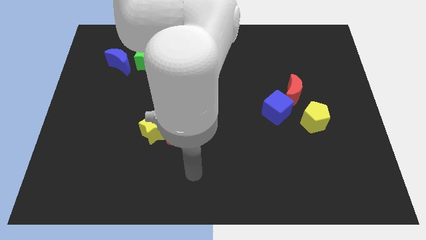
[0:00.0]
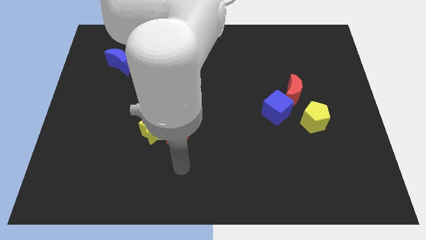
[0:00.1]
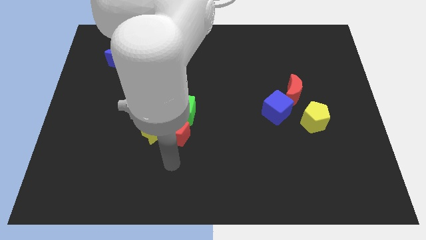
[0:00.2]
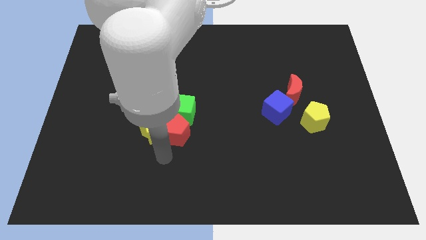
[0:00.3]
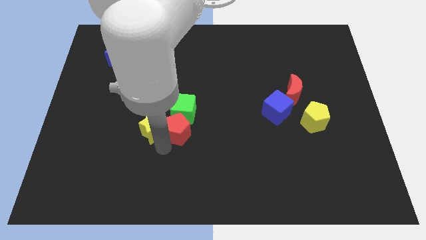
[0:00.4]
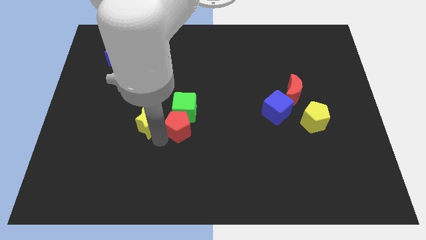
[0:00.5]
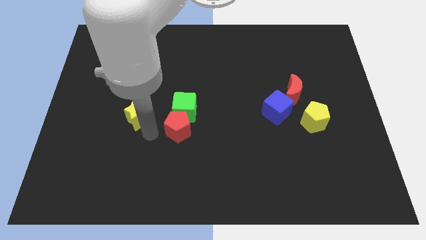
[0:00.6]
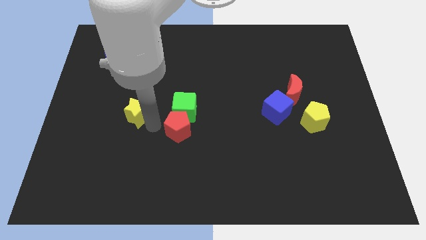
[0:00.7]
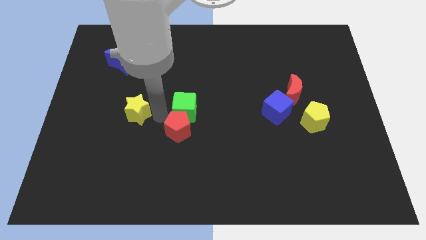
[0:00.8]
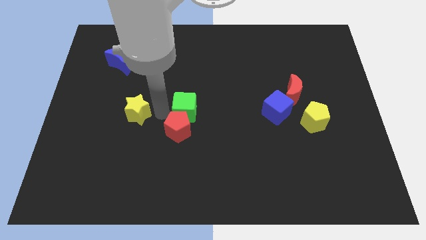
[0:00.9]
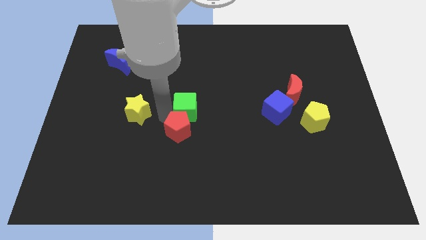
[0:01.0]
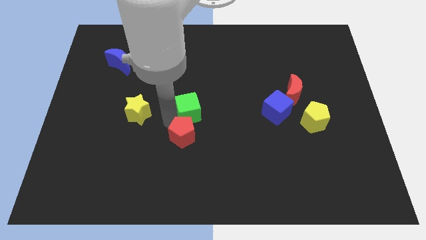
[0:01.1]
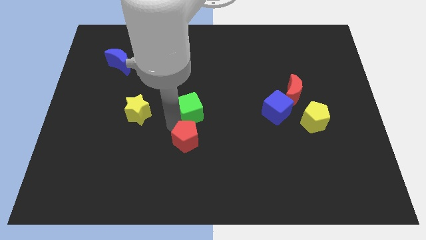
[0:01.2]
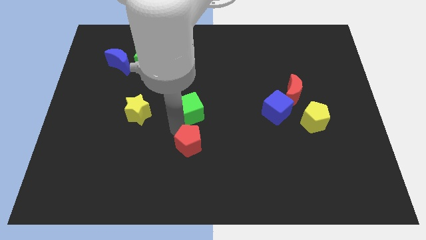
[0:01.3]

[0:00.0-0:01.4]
move the red pentagon away from the yellow star and green cube

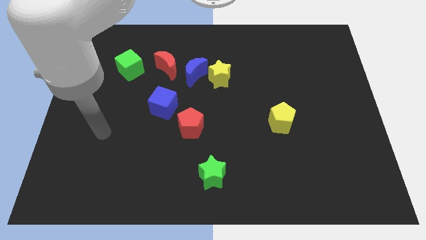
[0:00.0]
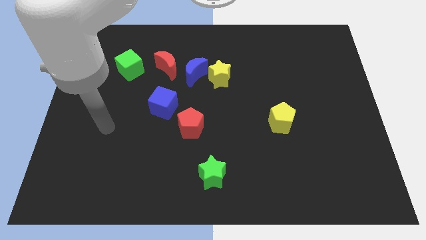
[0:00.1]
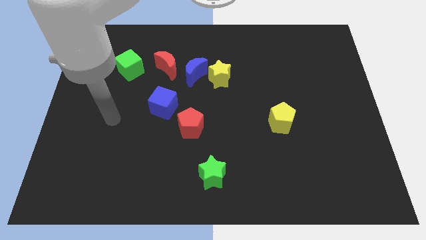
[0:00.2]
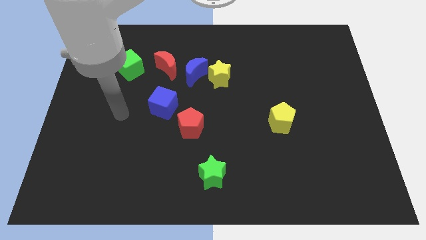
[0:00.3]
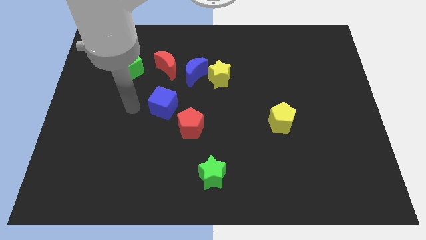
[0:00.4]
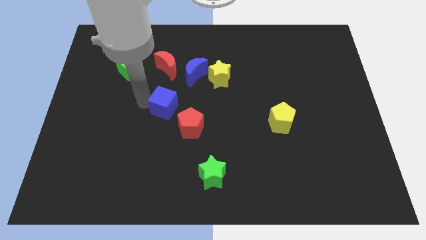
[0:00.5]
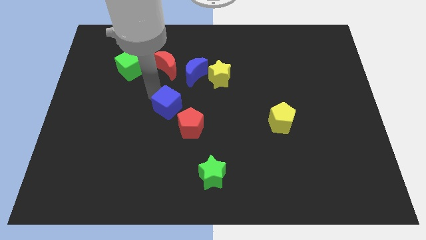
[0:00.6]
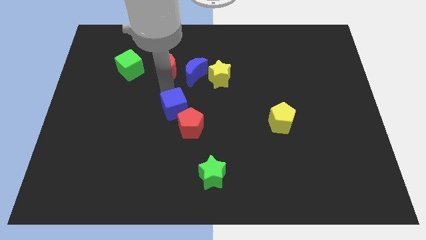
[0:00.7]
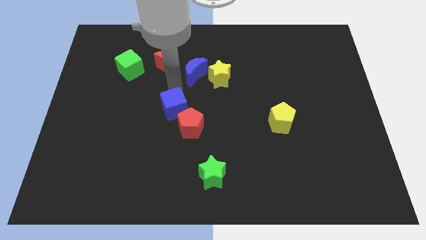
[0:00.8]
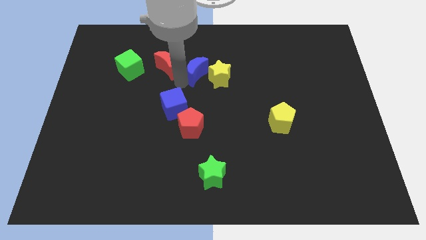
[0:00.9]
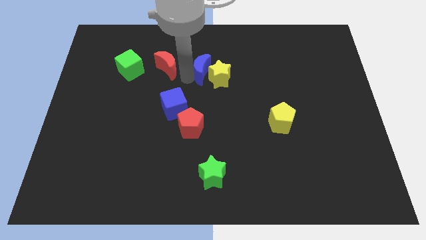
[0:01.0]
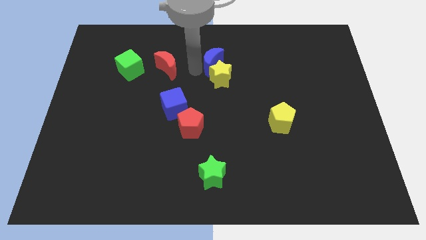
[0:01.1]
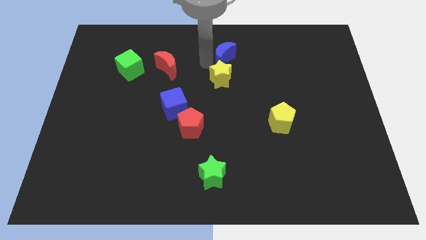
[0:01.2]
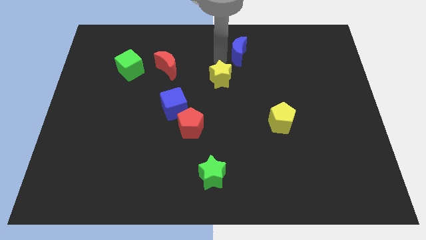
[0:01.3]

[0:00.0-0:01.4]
separate the yellow star from the blue moon

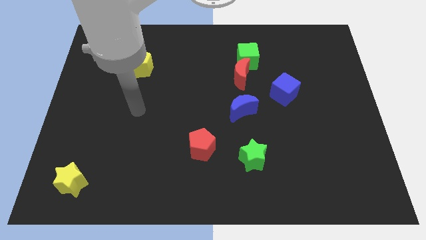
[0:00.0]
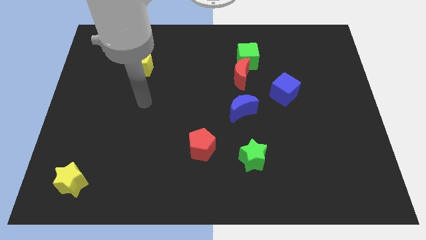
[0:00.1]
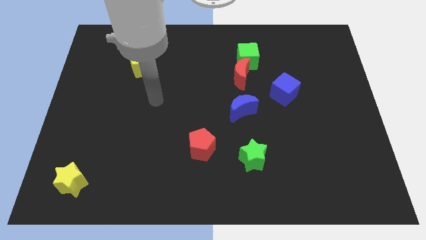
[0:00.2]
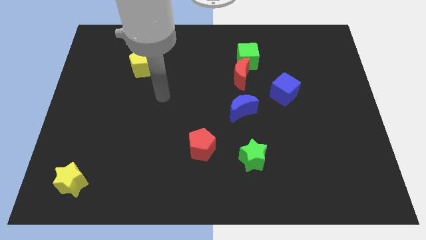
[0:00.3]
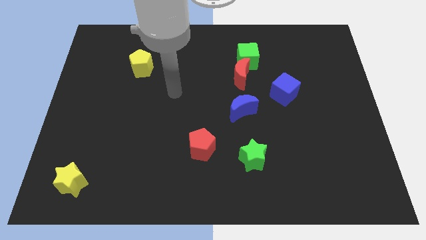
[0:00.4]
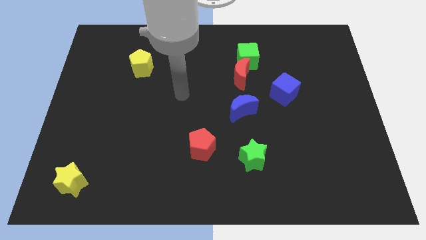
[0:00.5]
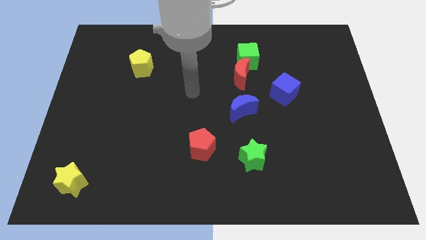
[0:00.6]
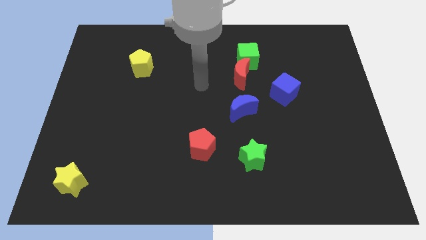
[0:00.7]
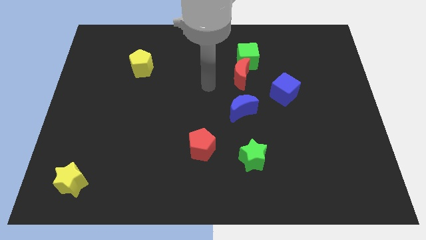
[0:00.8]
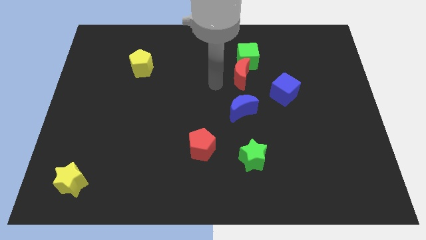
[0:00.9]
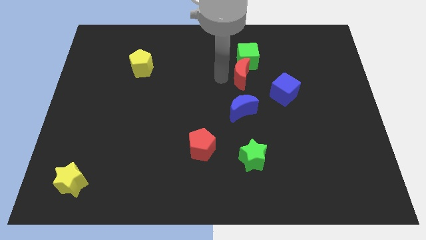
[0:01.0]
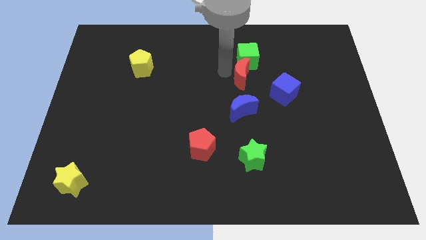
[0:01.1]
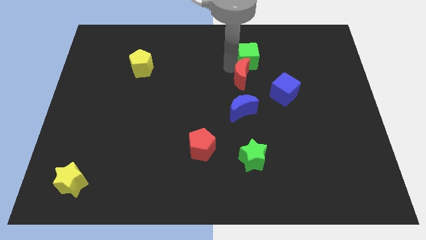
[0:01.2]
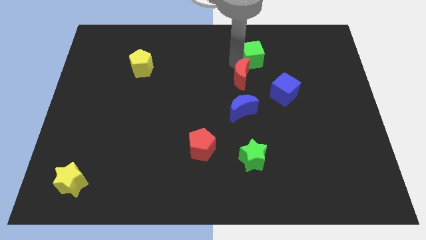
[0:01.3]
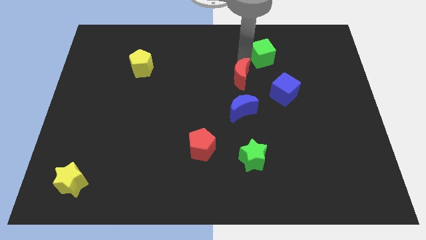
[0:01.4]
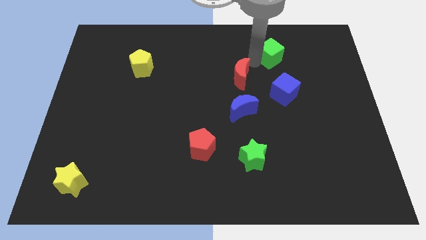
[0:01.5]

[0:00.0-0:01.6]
pull the red moon apart from the green cube

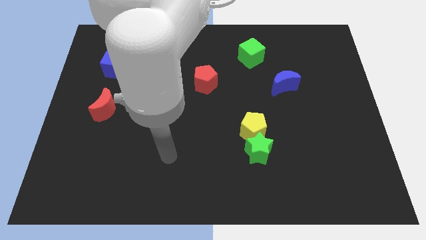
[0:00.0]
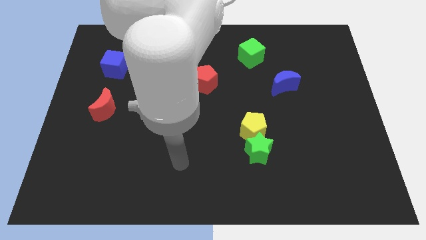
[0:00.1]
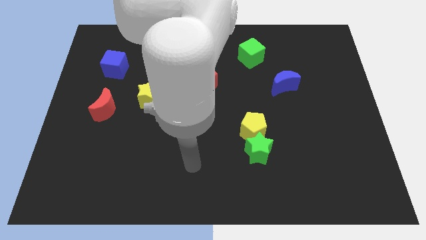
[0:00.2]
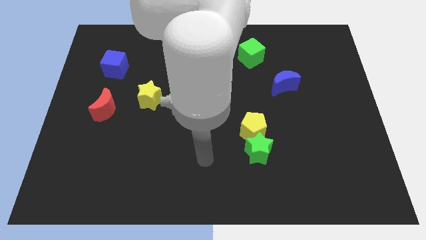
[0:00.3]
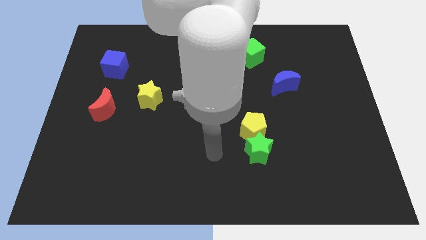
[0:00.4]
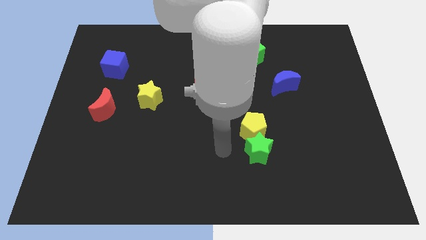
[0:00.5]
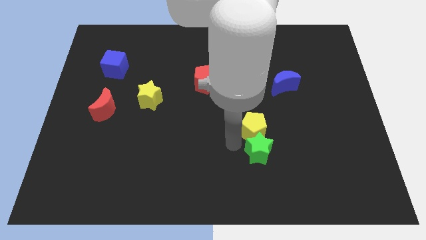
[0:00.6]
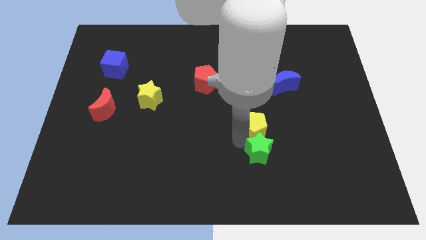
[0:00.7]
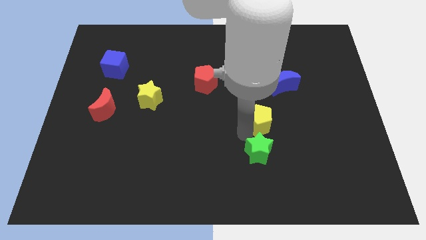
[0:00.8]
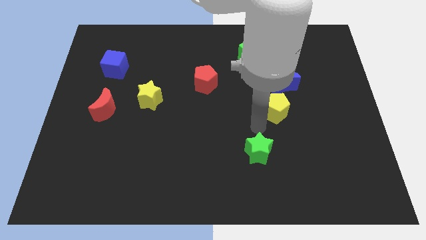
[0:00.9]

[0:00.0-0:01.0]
pull the green star apart from the yellow pentagon

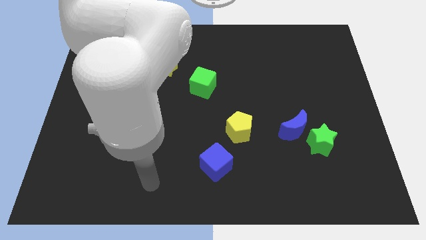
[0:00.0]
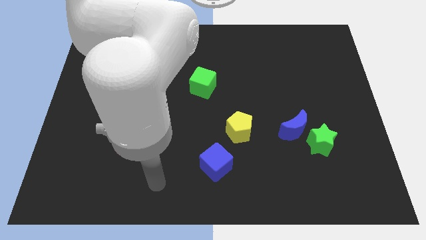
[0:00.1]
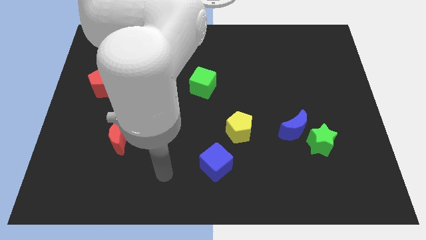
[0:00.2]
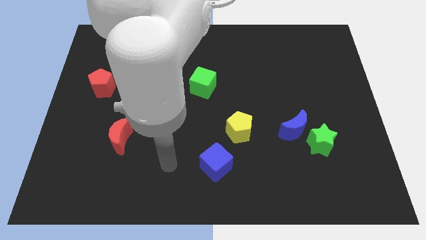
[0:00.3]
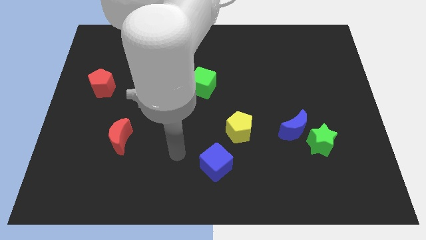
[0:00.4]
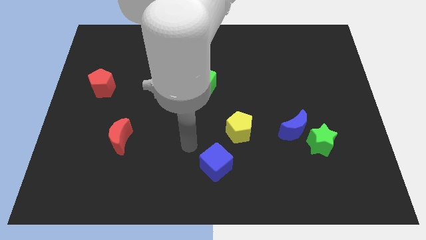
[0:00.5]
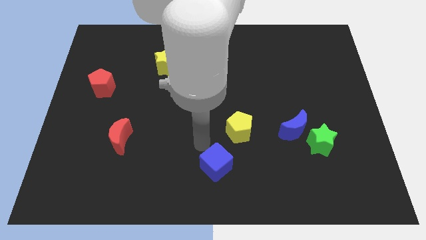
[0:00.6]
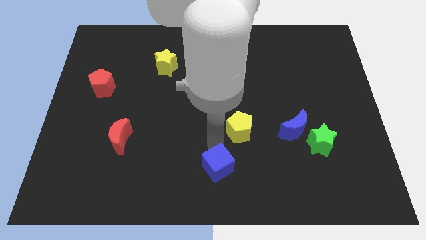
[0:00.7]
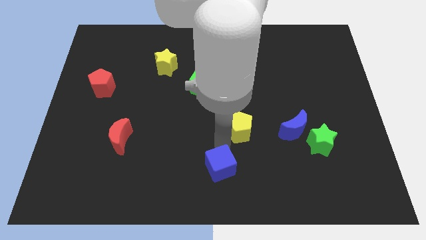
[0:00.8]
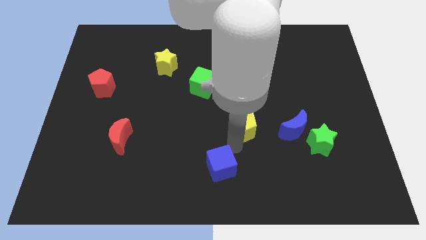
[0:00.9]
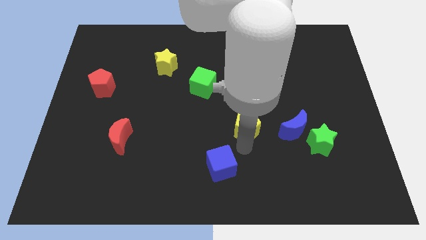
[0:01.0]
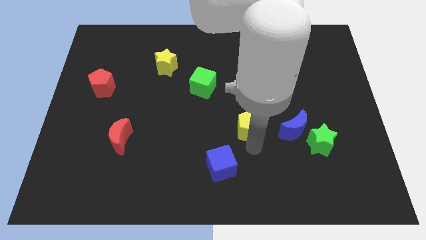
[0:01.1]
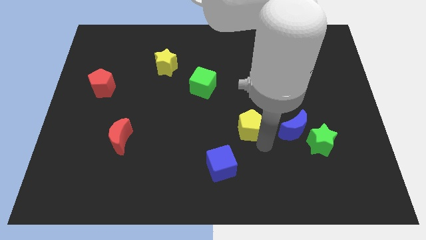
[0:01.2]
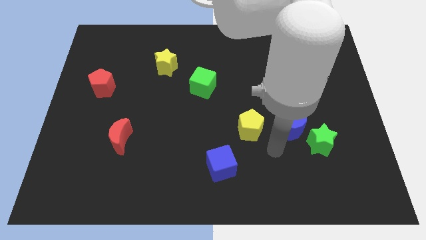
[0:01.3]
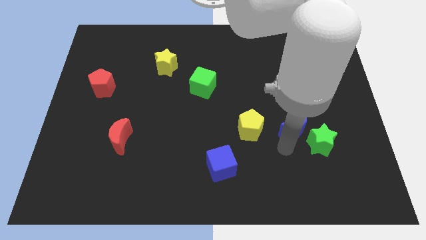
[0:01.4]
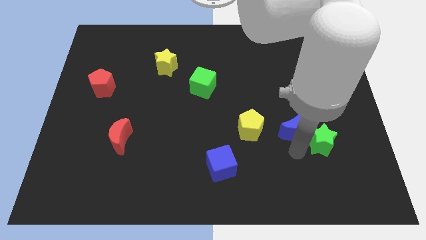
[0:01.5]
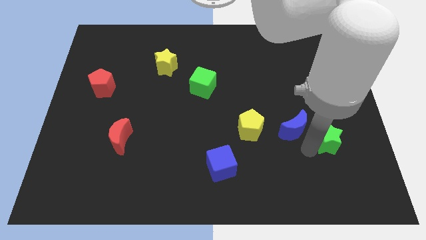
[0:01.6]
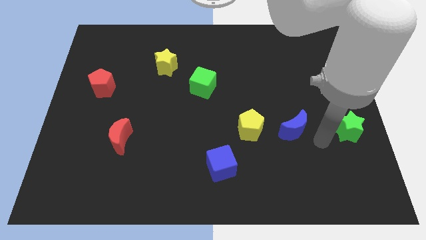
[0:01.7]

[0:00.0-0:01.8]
separate the blue moon from the green star

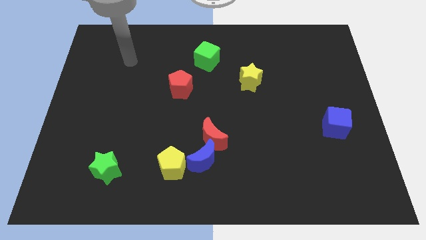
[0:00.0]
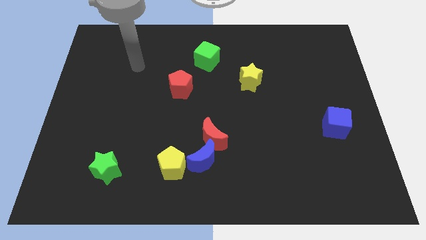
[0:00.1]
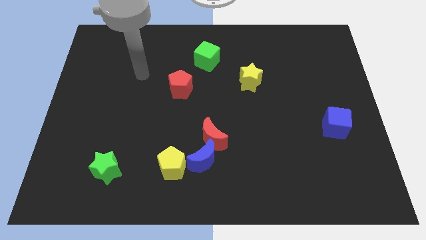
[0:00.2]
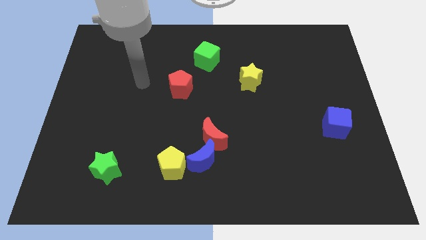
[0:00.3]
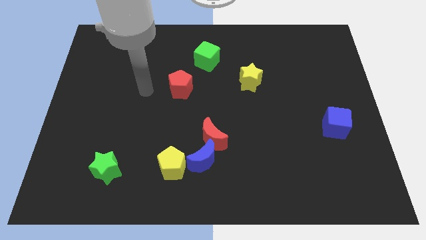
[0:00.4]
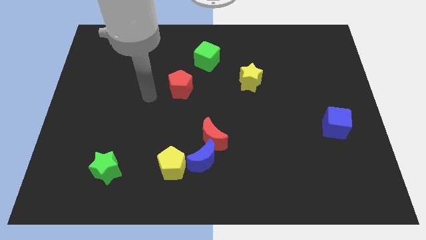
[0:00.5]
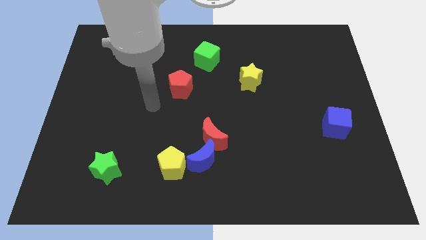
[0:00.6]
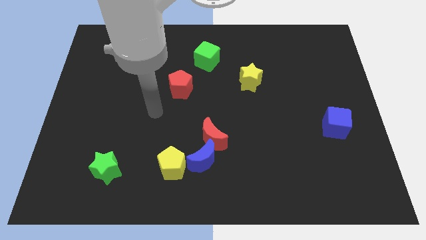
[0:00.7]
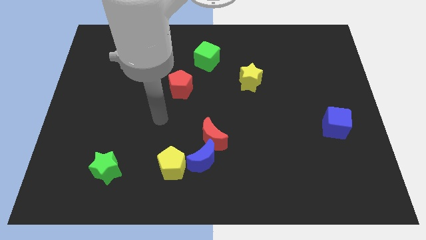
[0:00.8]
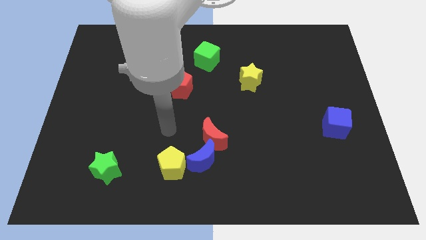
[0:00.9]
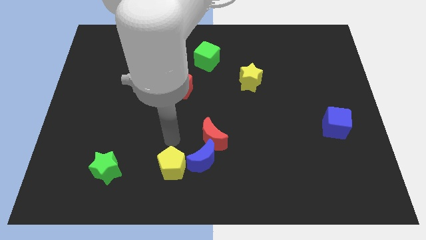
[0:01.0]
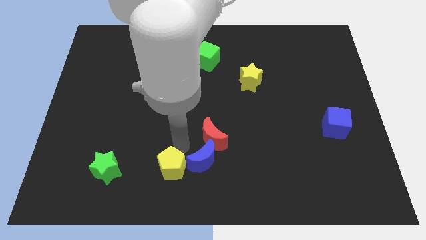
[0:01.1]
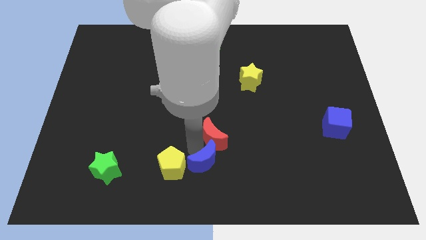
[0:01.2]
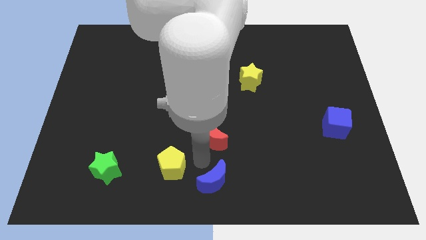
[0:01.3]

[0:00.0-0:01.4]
separate the red moon from the blue moon

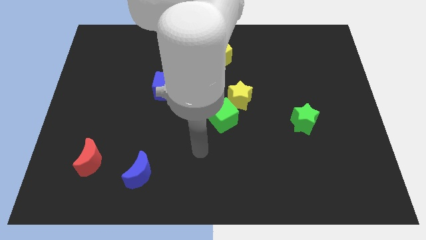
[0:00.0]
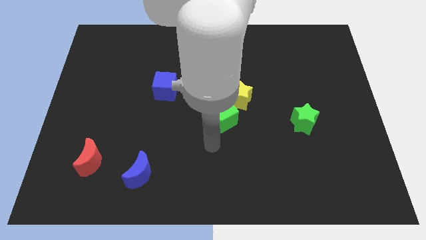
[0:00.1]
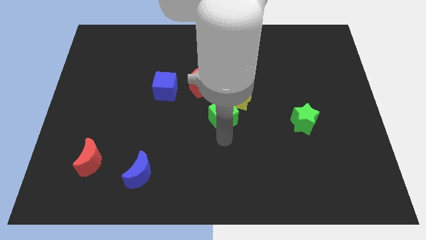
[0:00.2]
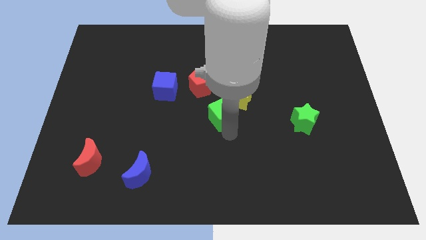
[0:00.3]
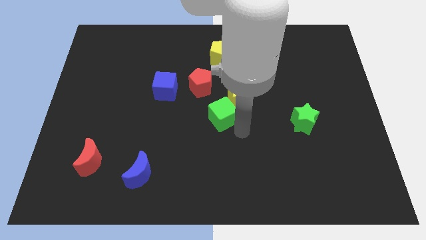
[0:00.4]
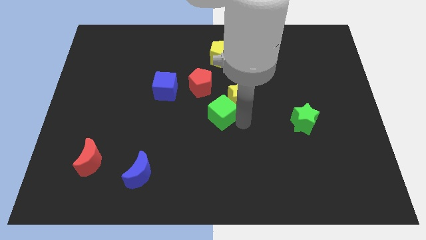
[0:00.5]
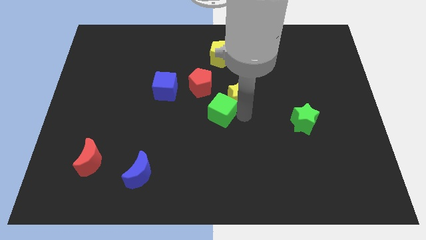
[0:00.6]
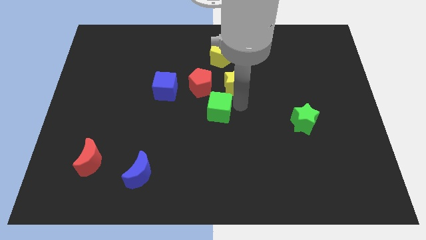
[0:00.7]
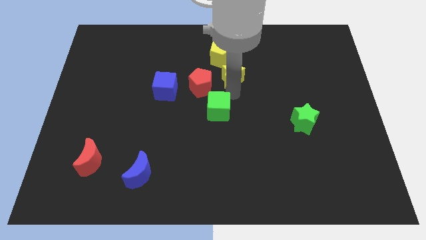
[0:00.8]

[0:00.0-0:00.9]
pull the green cube apart from the yellow star
